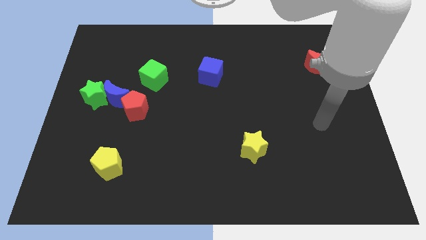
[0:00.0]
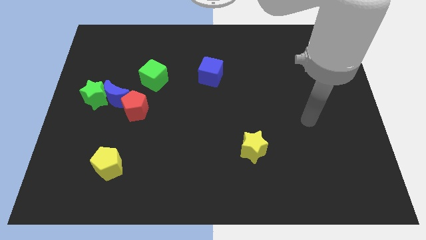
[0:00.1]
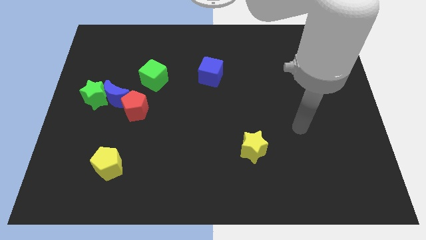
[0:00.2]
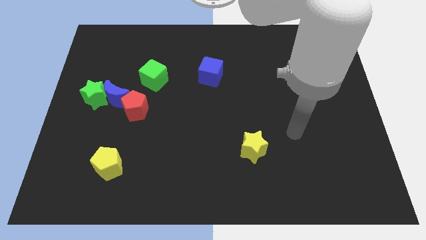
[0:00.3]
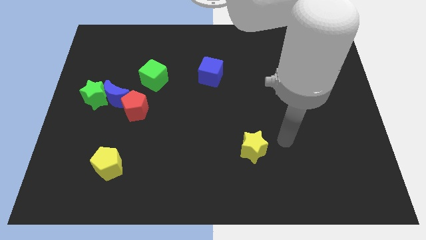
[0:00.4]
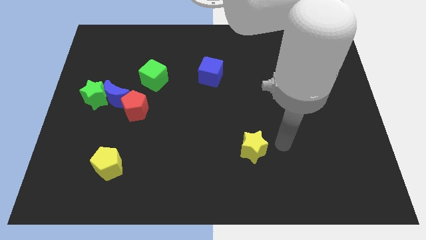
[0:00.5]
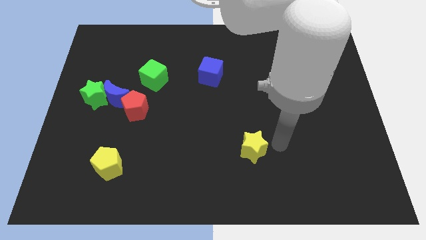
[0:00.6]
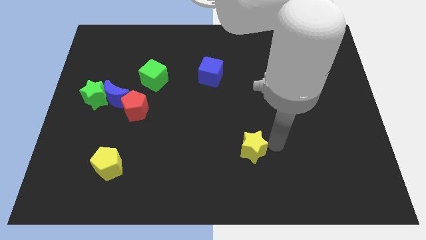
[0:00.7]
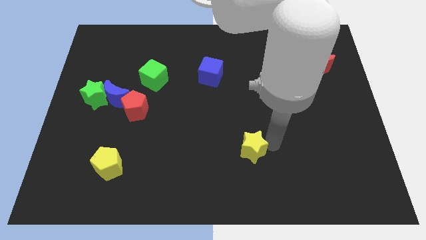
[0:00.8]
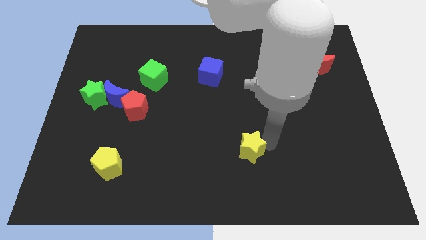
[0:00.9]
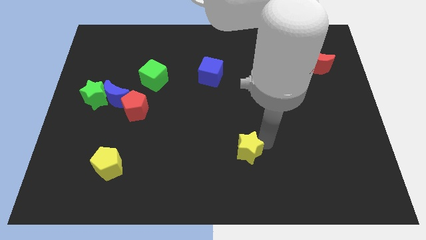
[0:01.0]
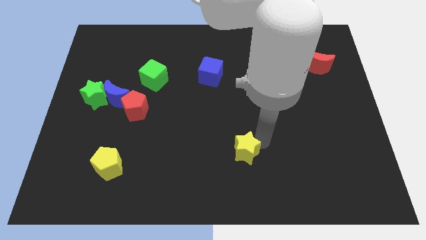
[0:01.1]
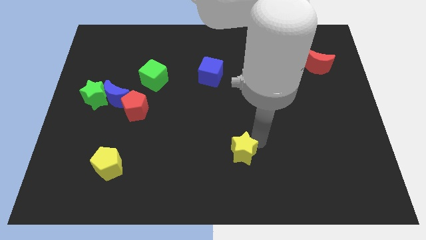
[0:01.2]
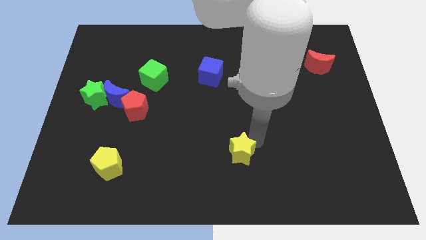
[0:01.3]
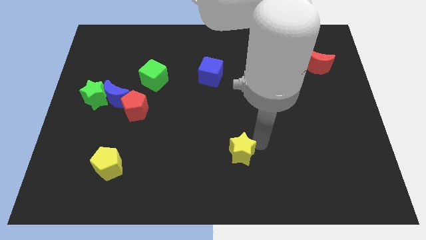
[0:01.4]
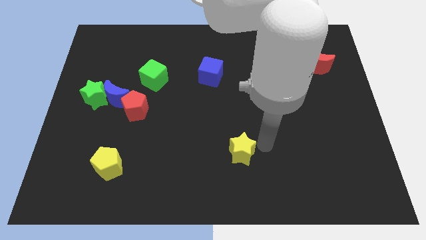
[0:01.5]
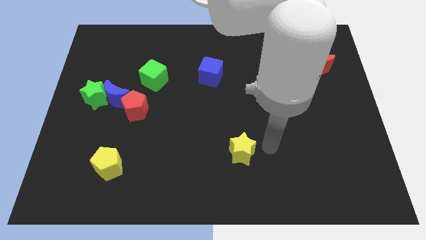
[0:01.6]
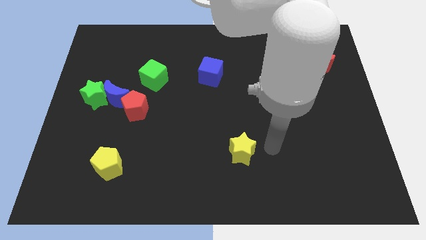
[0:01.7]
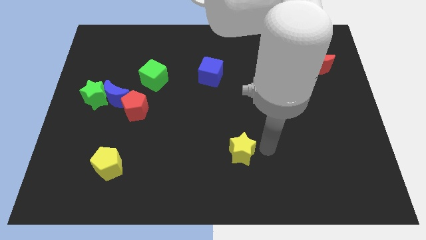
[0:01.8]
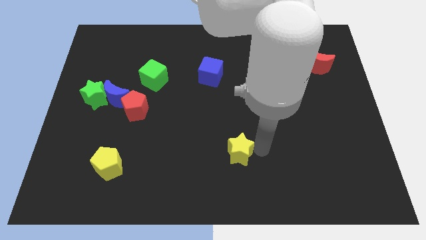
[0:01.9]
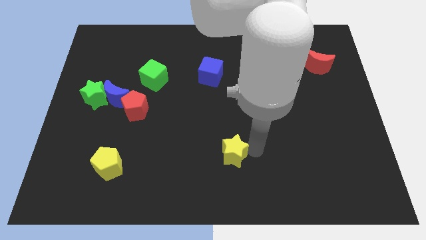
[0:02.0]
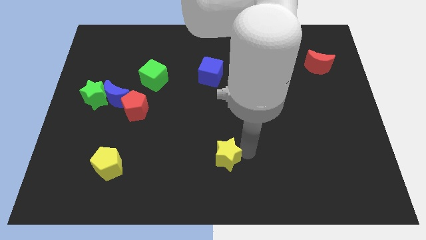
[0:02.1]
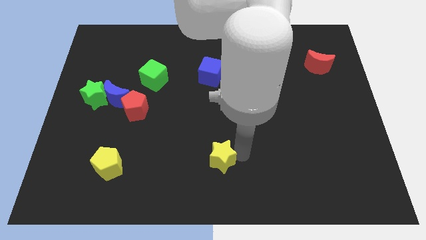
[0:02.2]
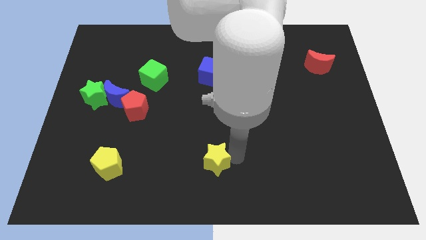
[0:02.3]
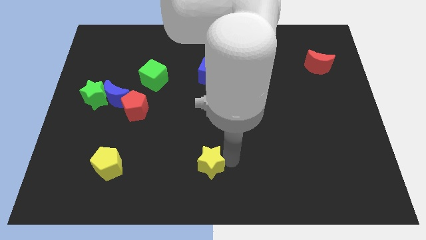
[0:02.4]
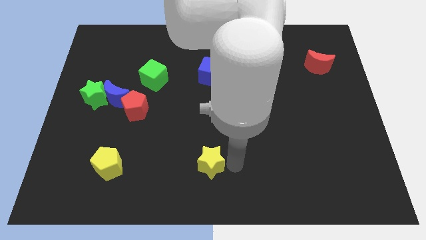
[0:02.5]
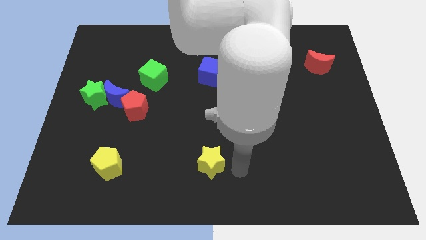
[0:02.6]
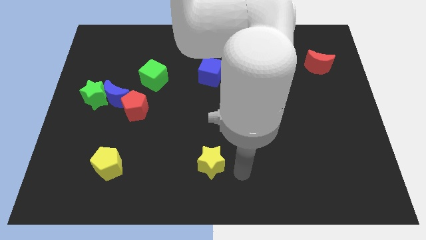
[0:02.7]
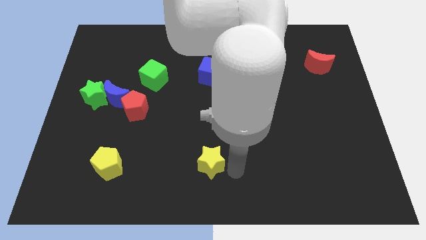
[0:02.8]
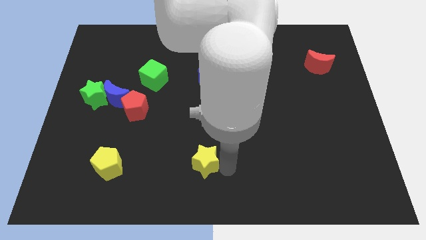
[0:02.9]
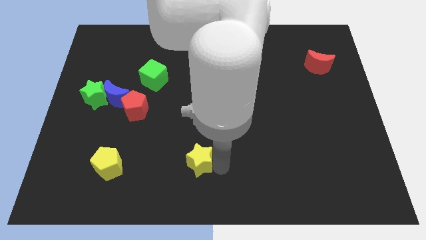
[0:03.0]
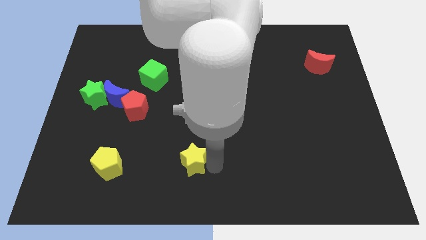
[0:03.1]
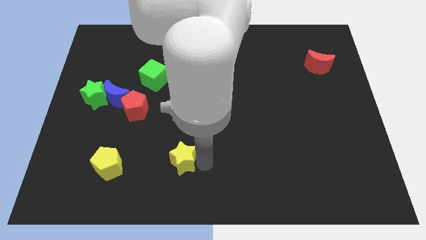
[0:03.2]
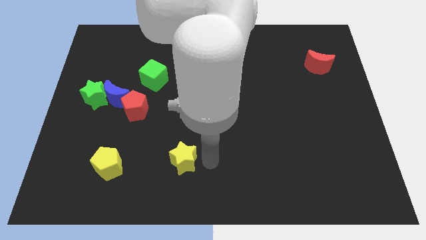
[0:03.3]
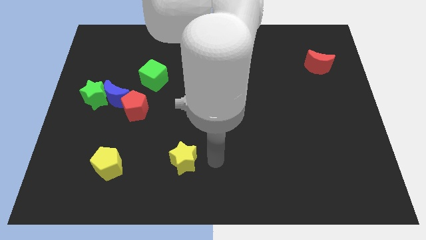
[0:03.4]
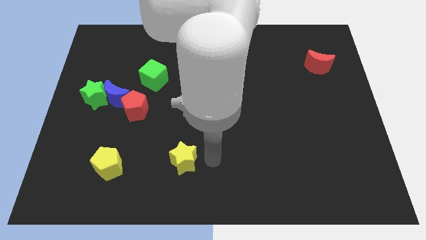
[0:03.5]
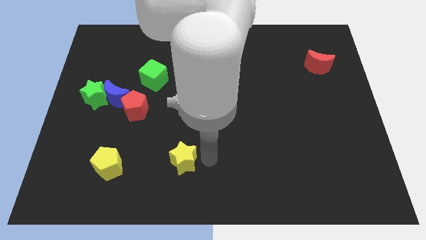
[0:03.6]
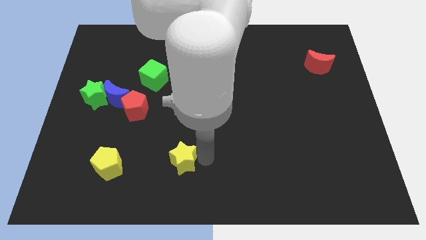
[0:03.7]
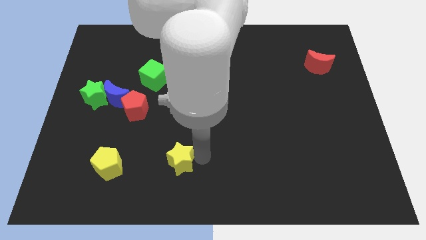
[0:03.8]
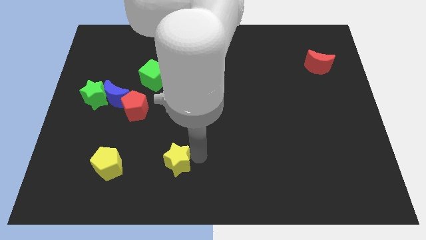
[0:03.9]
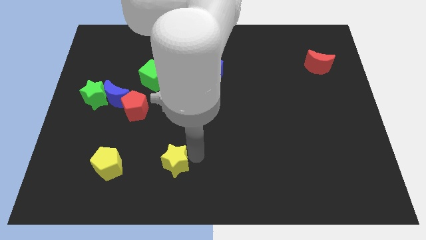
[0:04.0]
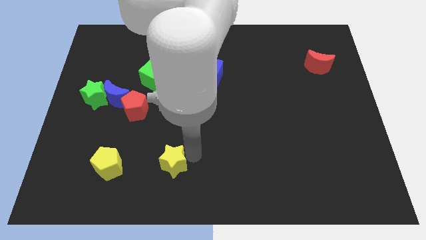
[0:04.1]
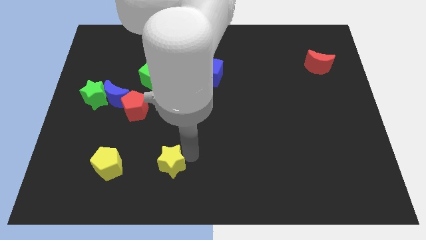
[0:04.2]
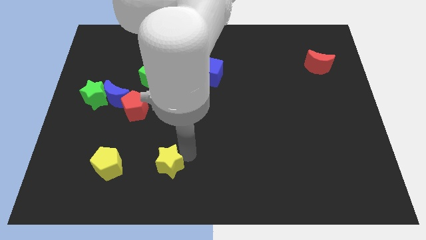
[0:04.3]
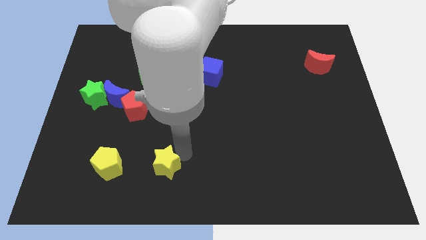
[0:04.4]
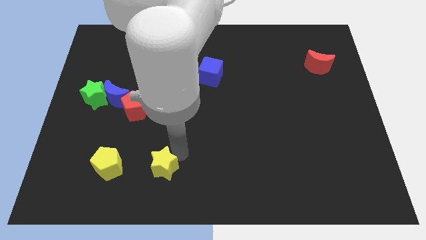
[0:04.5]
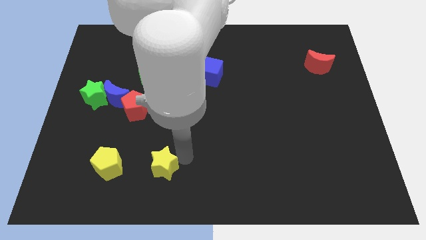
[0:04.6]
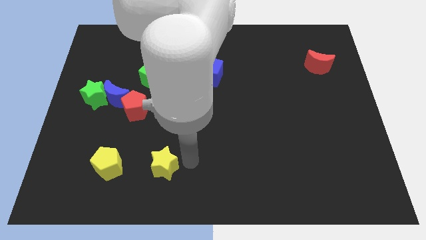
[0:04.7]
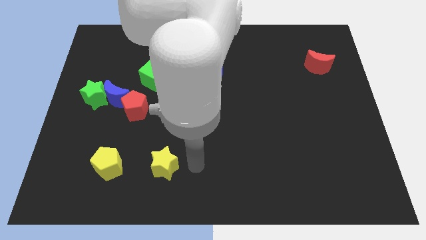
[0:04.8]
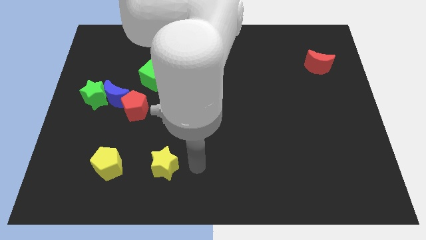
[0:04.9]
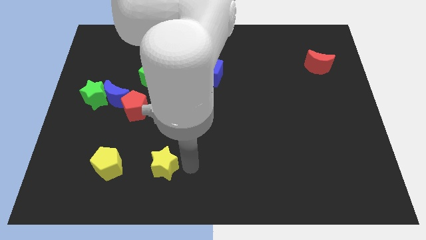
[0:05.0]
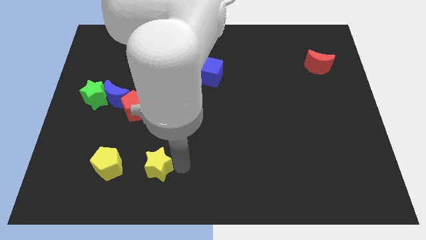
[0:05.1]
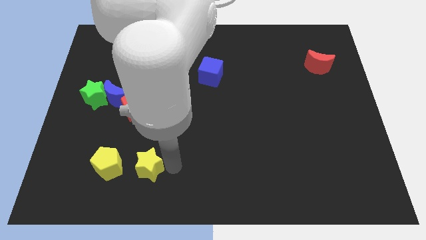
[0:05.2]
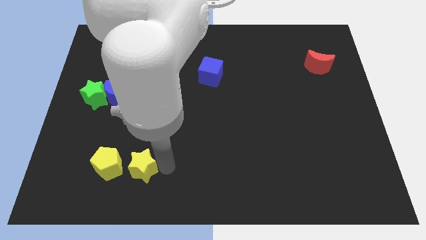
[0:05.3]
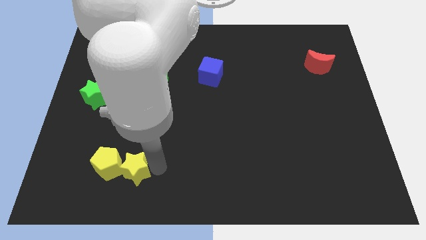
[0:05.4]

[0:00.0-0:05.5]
slide the yellow star next to the yellow pentagon

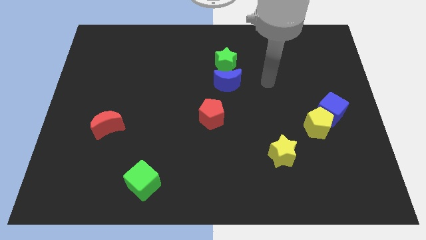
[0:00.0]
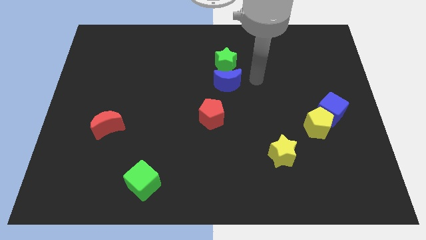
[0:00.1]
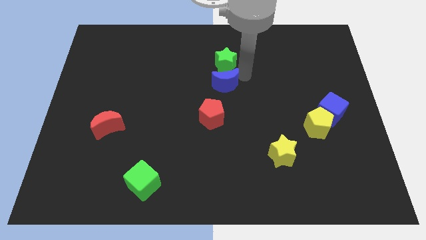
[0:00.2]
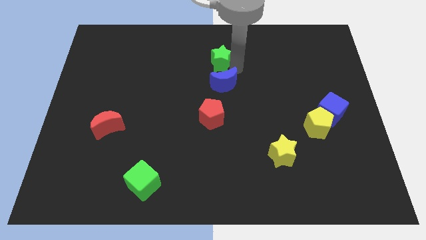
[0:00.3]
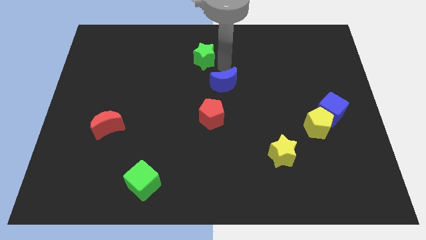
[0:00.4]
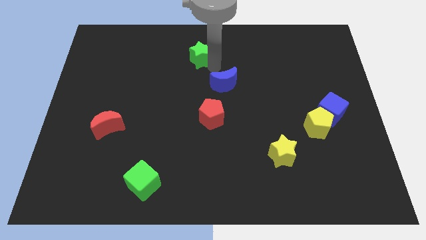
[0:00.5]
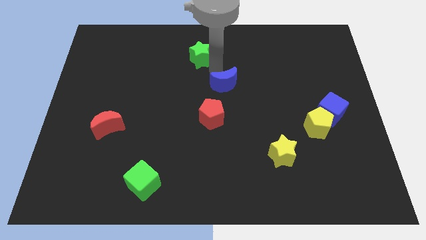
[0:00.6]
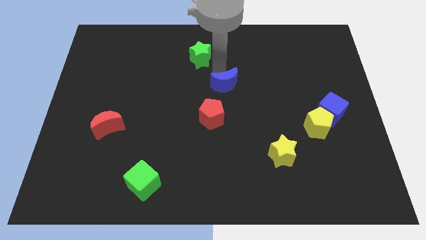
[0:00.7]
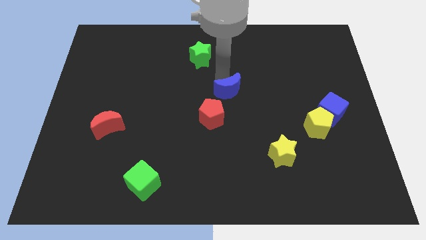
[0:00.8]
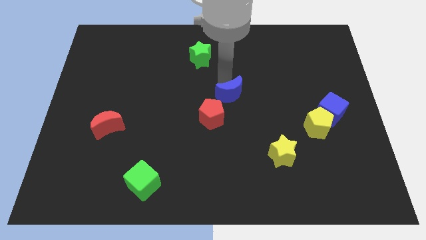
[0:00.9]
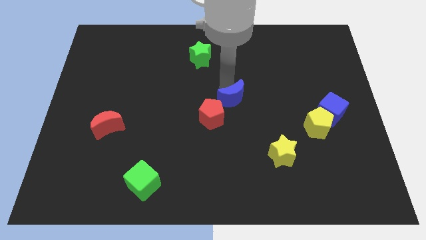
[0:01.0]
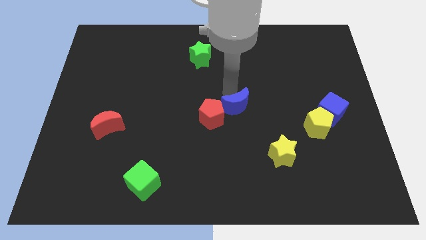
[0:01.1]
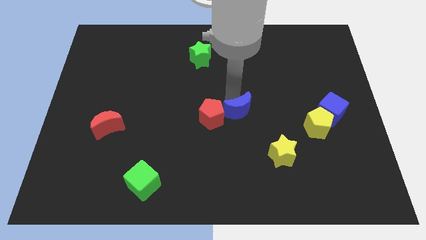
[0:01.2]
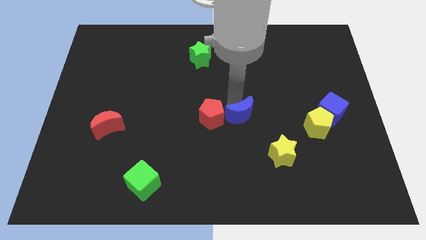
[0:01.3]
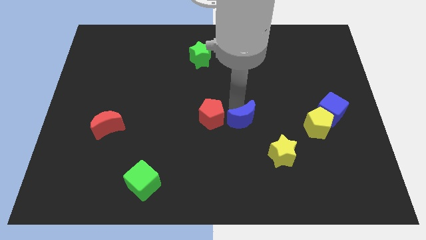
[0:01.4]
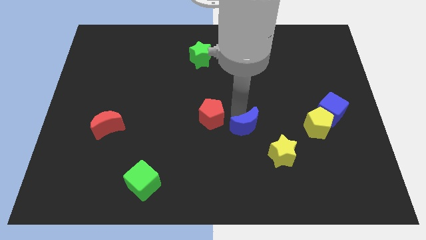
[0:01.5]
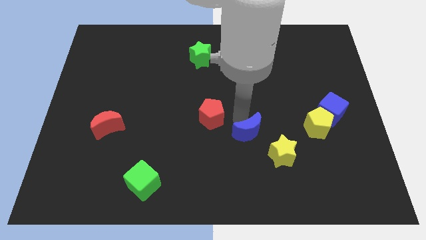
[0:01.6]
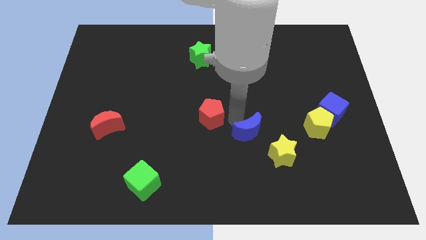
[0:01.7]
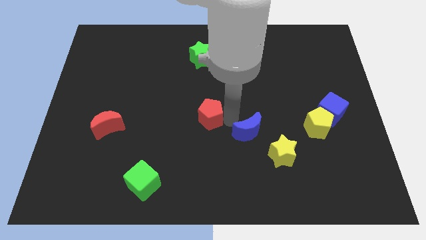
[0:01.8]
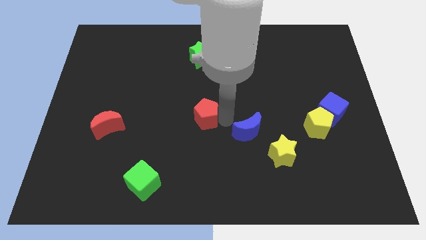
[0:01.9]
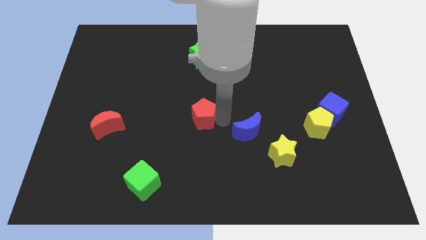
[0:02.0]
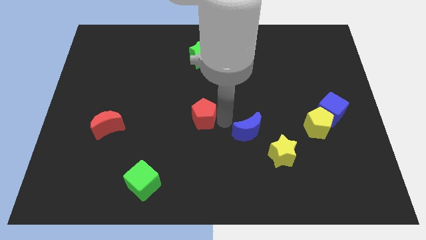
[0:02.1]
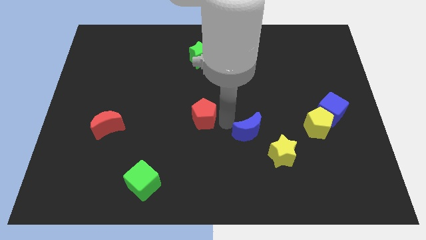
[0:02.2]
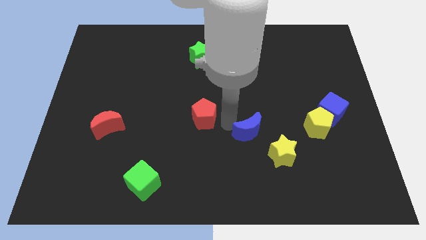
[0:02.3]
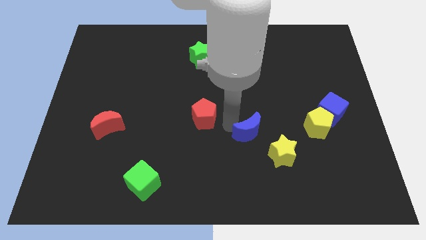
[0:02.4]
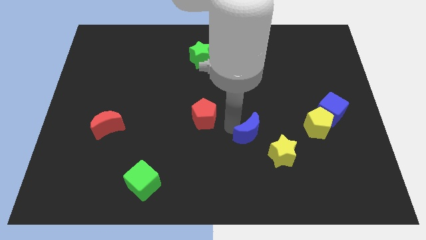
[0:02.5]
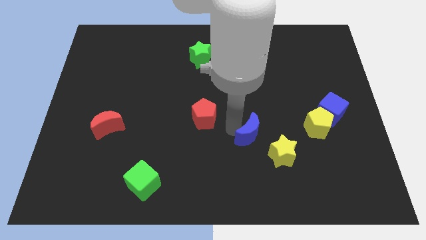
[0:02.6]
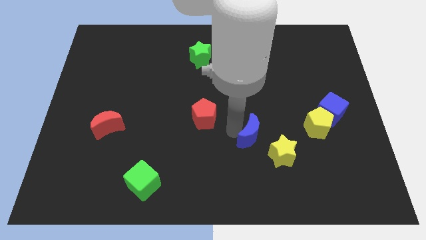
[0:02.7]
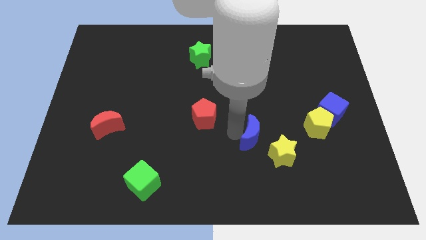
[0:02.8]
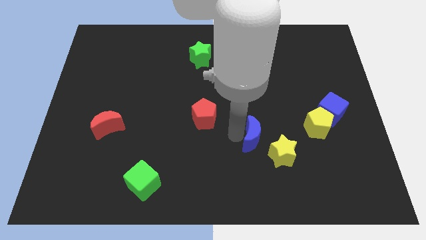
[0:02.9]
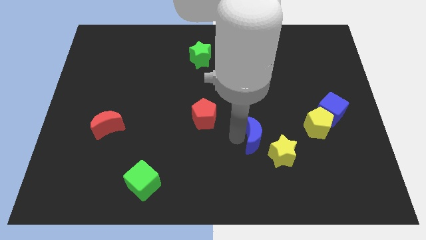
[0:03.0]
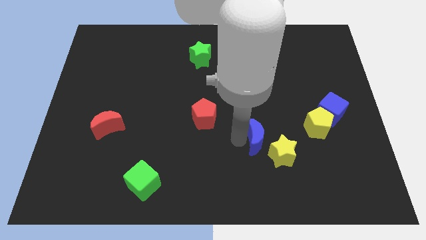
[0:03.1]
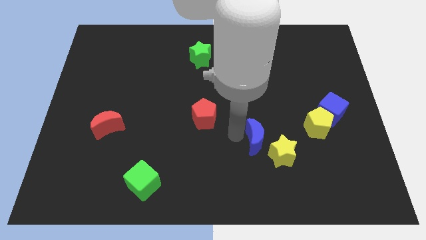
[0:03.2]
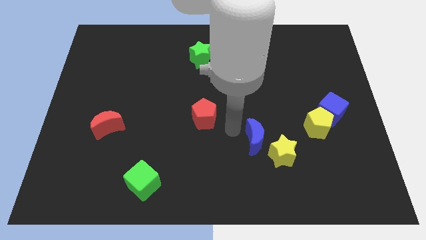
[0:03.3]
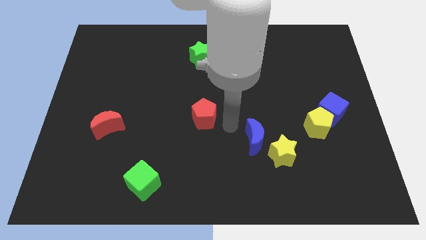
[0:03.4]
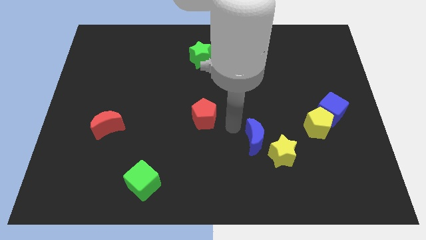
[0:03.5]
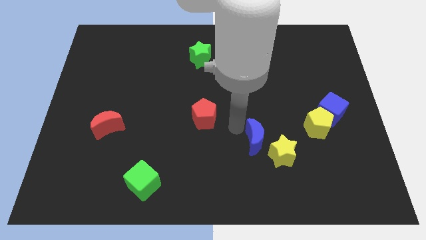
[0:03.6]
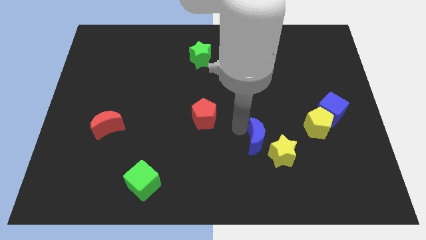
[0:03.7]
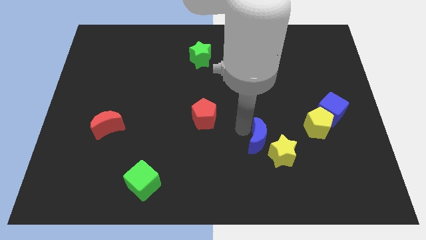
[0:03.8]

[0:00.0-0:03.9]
put the blue moon towards the yellow star
